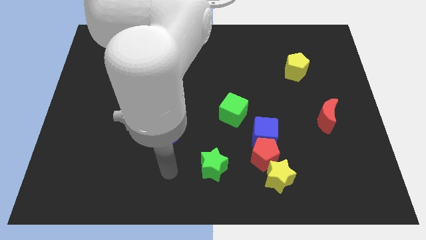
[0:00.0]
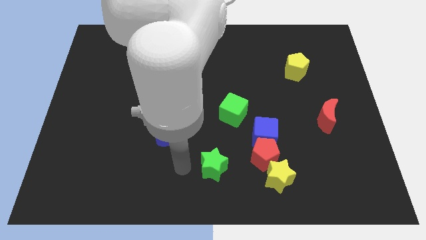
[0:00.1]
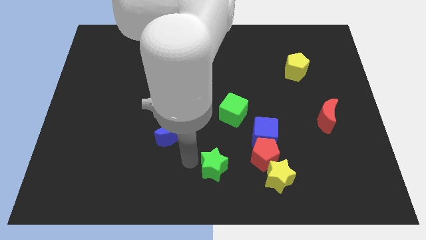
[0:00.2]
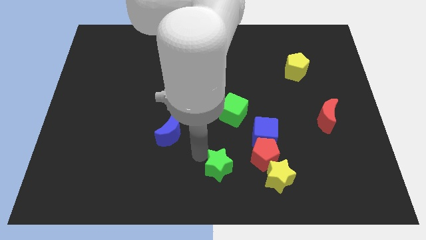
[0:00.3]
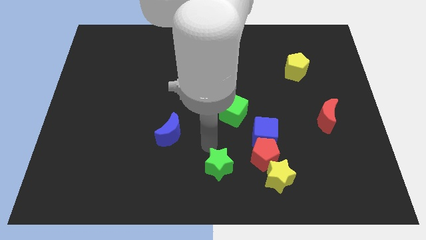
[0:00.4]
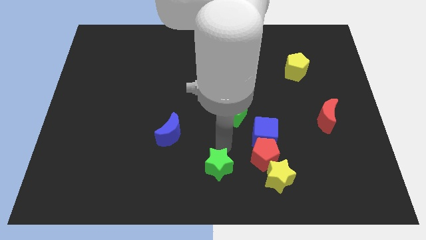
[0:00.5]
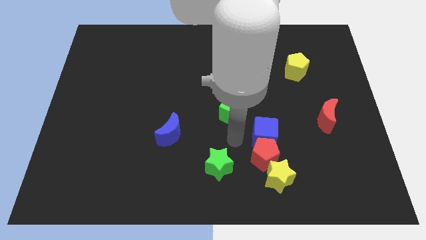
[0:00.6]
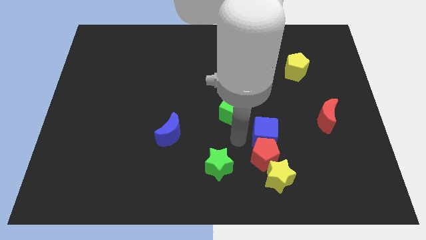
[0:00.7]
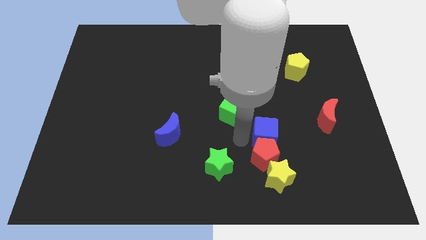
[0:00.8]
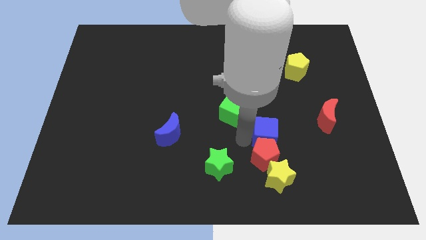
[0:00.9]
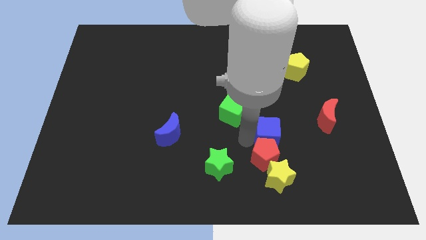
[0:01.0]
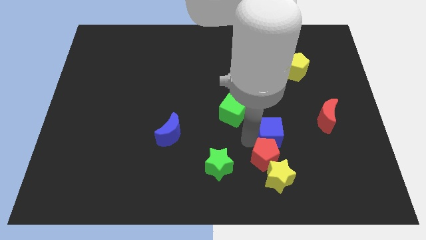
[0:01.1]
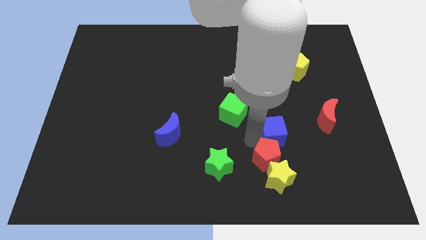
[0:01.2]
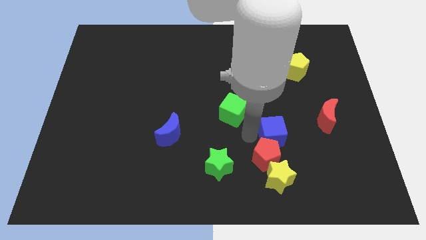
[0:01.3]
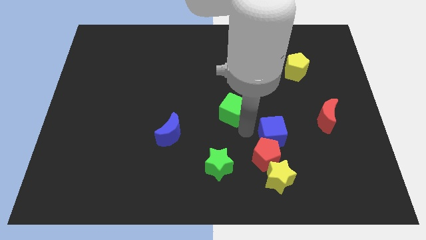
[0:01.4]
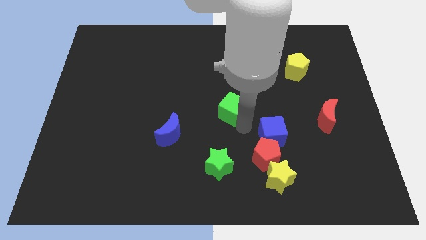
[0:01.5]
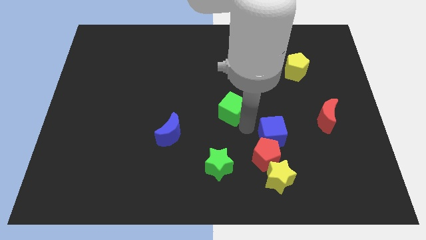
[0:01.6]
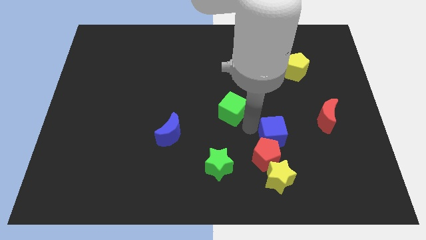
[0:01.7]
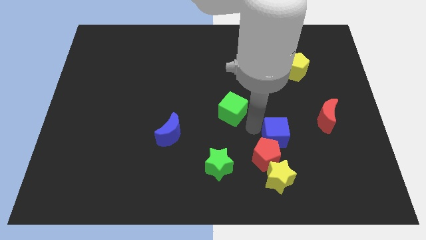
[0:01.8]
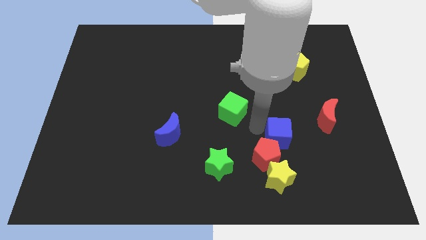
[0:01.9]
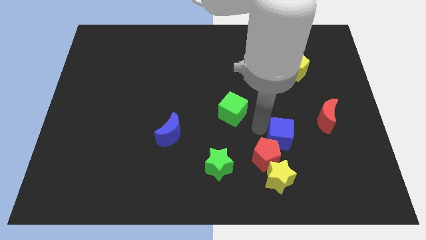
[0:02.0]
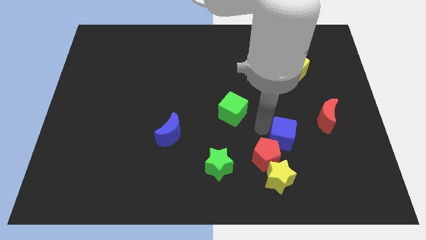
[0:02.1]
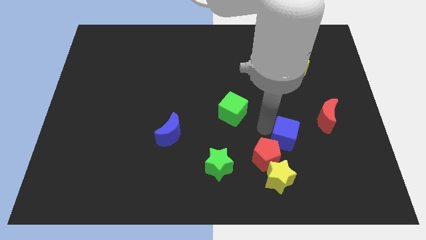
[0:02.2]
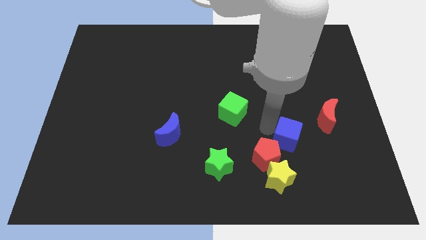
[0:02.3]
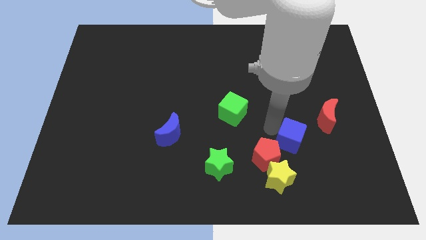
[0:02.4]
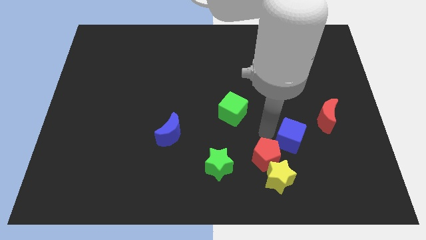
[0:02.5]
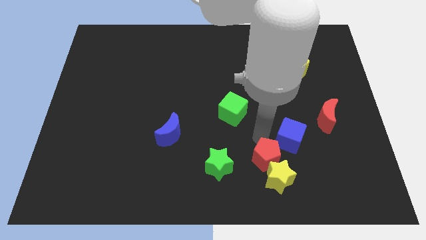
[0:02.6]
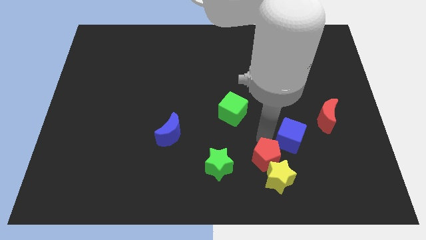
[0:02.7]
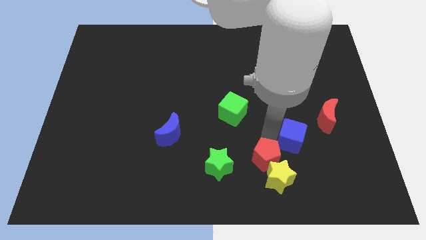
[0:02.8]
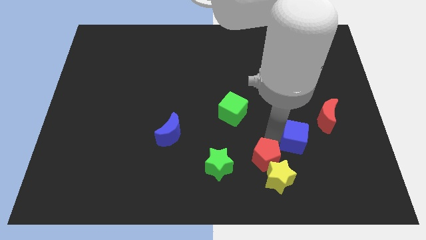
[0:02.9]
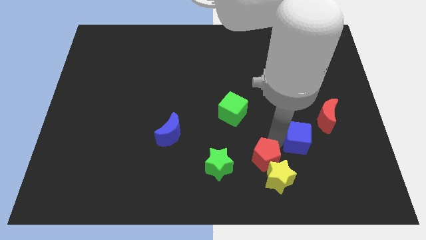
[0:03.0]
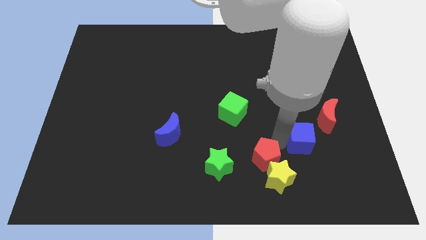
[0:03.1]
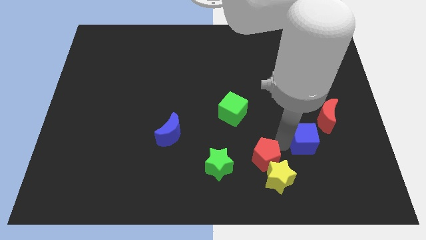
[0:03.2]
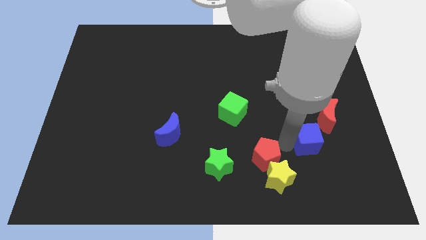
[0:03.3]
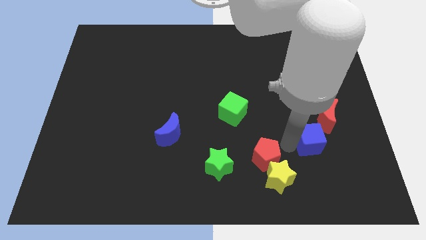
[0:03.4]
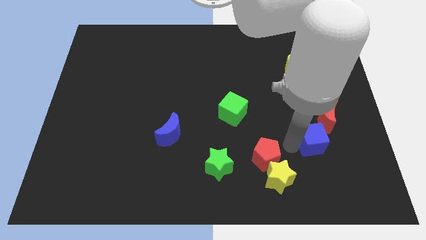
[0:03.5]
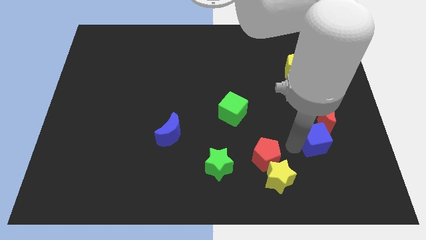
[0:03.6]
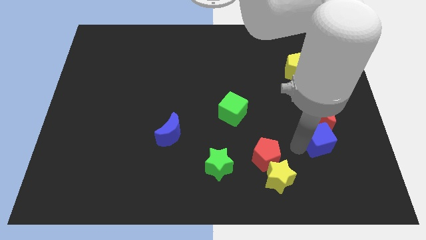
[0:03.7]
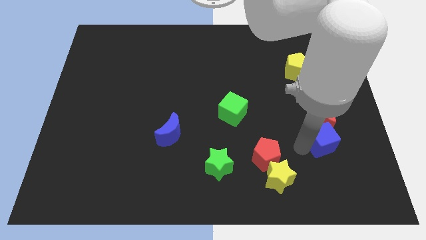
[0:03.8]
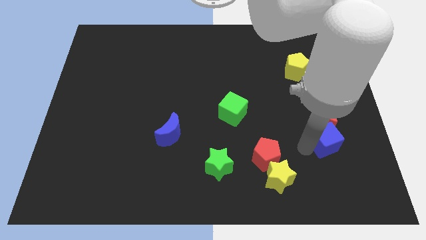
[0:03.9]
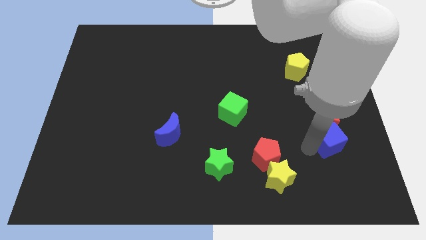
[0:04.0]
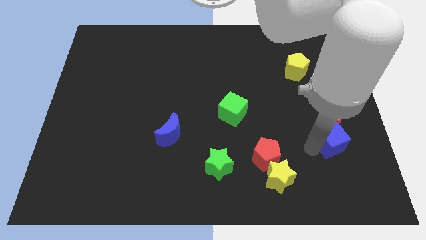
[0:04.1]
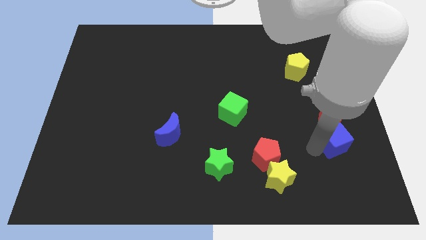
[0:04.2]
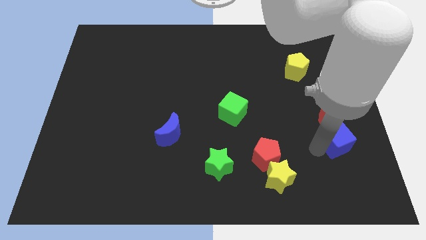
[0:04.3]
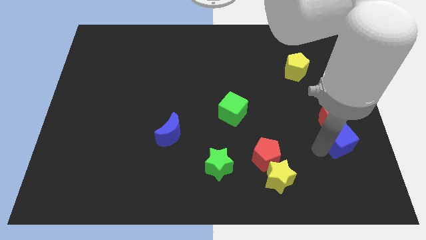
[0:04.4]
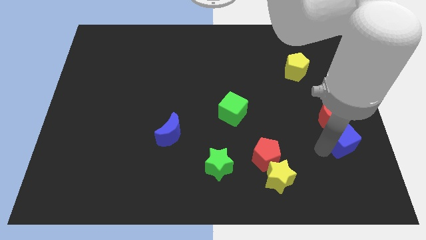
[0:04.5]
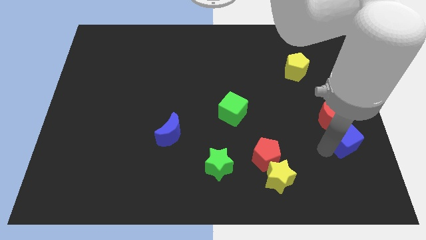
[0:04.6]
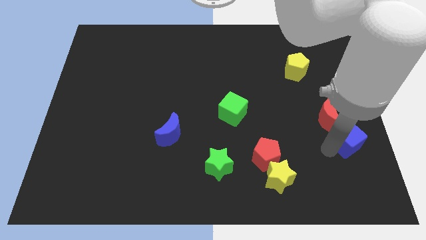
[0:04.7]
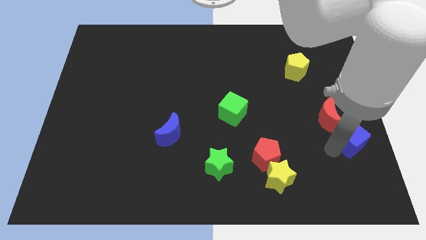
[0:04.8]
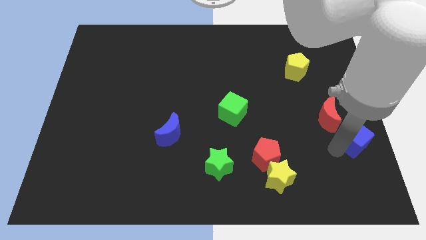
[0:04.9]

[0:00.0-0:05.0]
put the blue cube to the right side of the board

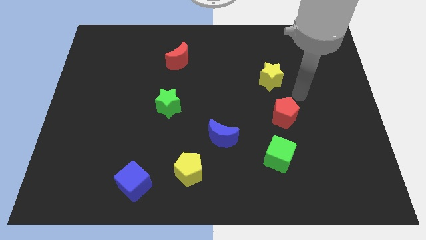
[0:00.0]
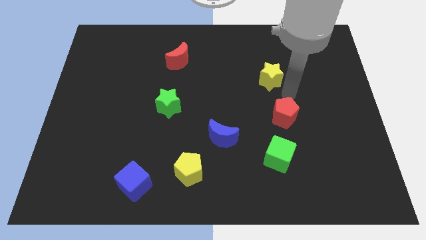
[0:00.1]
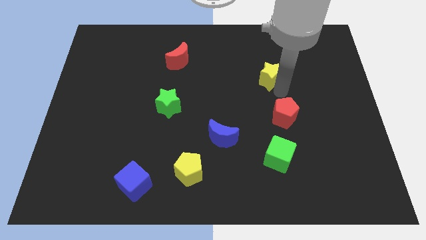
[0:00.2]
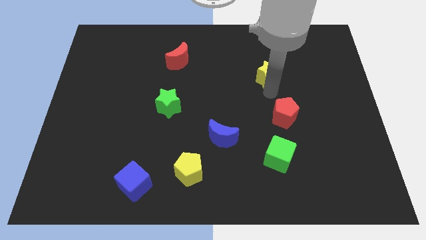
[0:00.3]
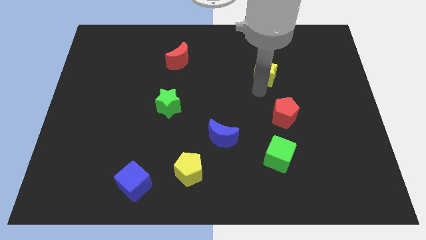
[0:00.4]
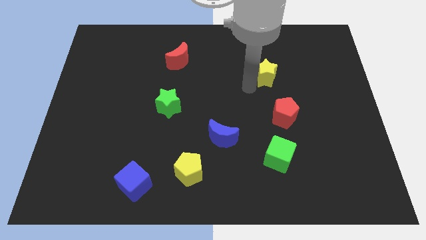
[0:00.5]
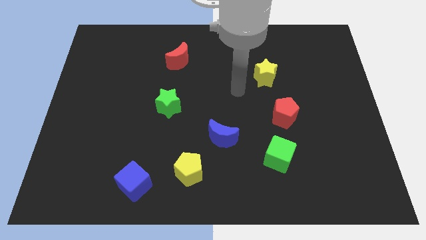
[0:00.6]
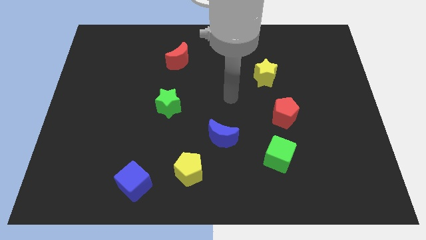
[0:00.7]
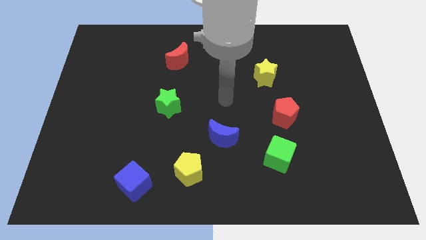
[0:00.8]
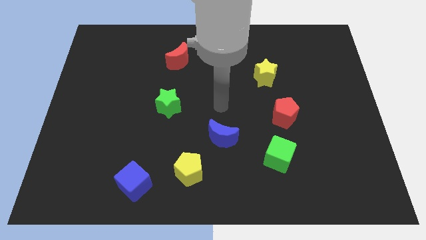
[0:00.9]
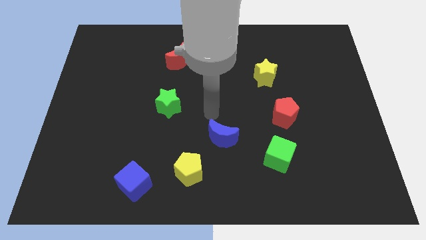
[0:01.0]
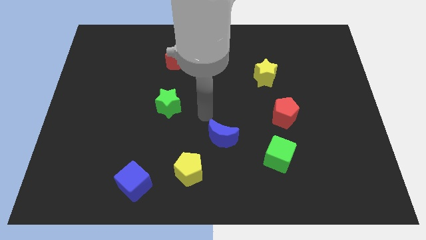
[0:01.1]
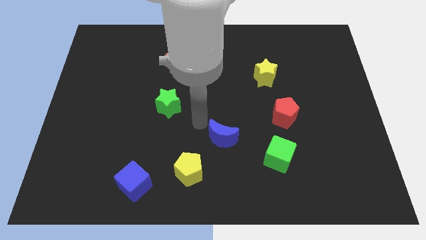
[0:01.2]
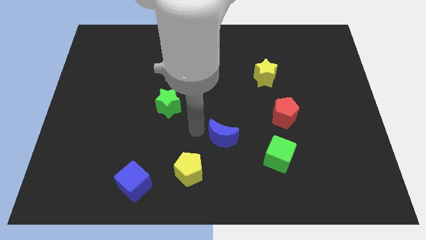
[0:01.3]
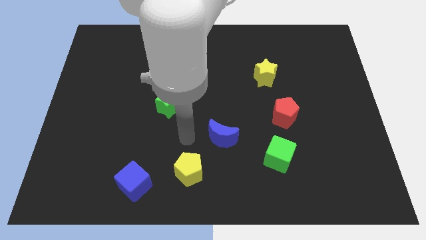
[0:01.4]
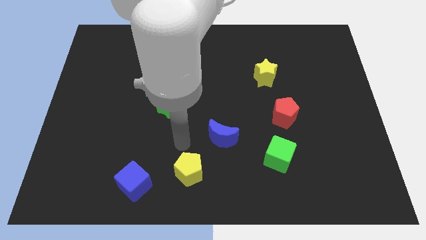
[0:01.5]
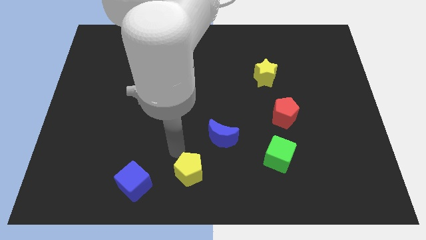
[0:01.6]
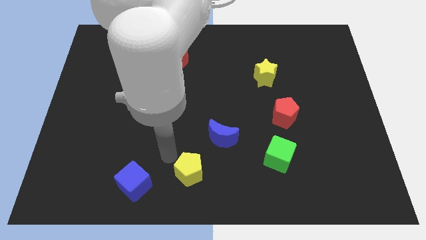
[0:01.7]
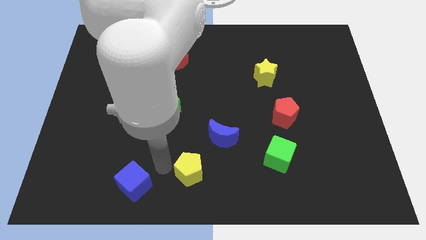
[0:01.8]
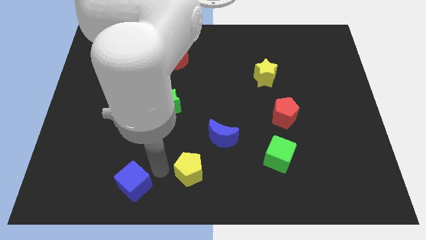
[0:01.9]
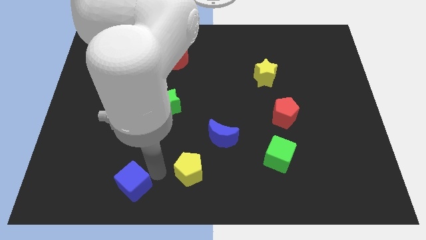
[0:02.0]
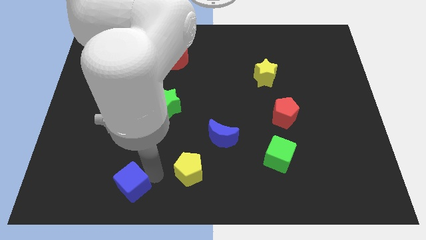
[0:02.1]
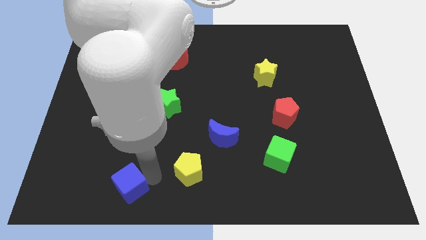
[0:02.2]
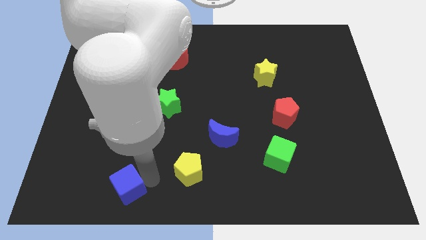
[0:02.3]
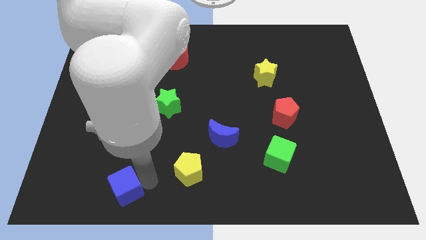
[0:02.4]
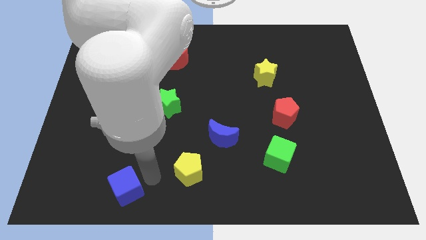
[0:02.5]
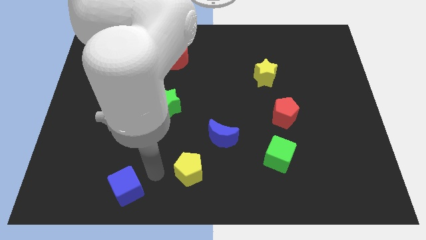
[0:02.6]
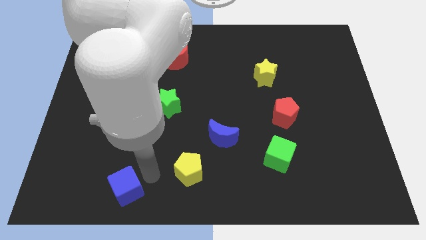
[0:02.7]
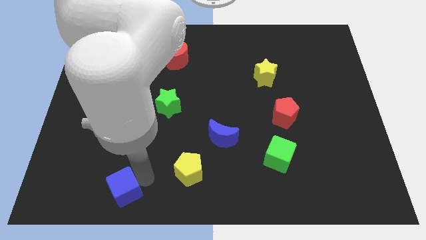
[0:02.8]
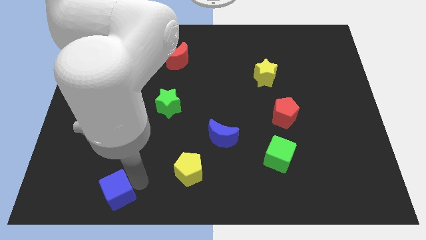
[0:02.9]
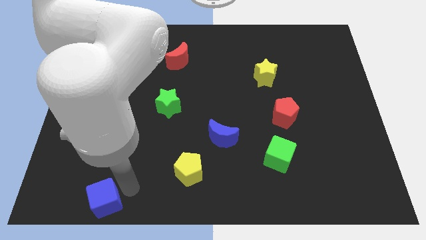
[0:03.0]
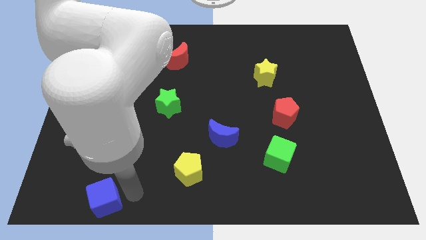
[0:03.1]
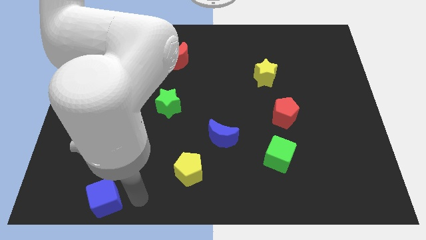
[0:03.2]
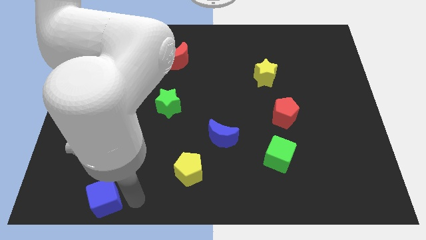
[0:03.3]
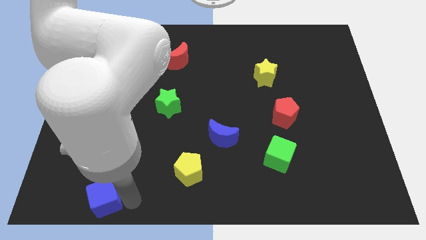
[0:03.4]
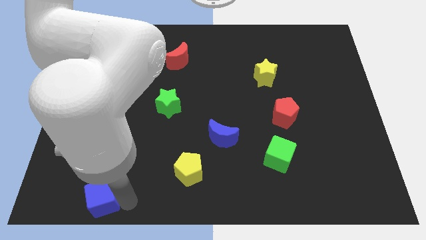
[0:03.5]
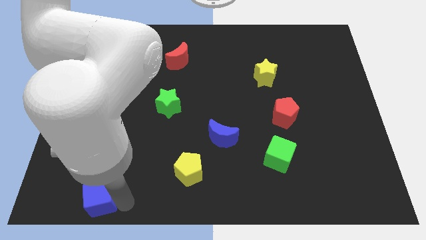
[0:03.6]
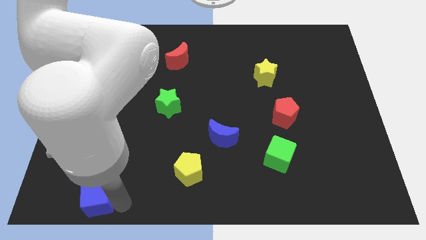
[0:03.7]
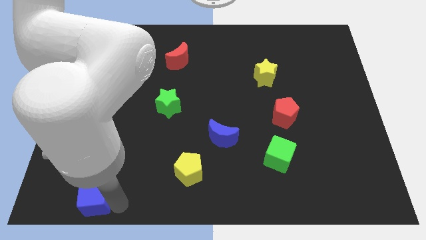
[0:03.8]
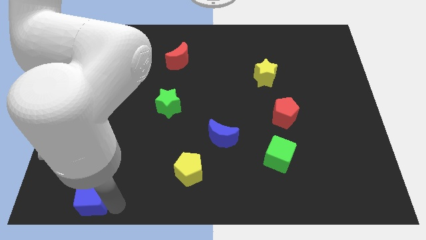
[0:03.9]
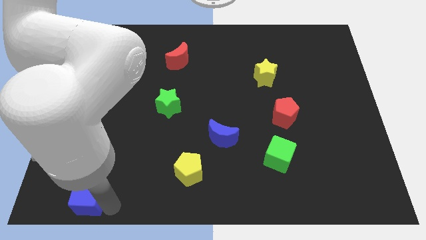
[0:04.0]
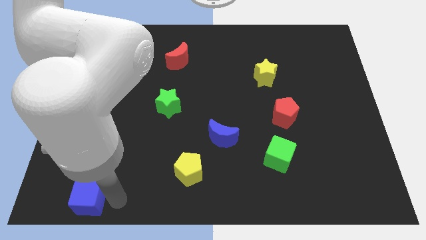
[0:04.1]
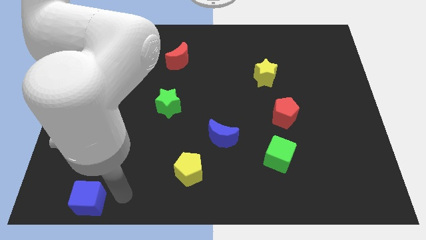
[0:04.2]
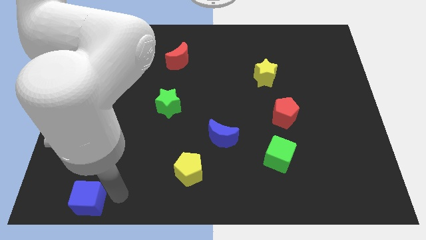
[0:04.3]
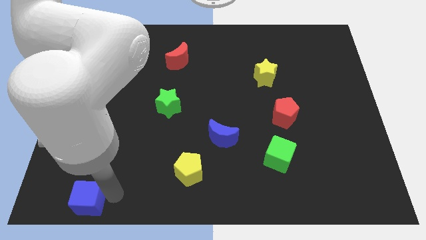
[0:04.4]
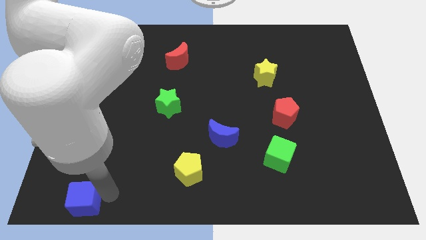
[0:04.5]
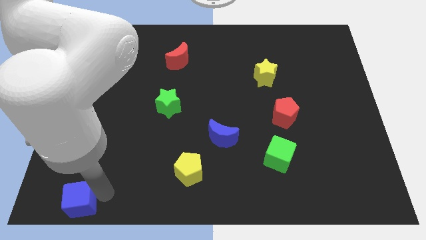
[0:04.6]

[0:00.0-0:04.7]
put the blue cube to the bottom left
